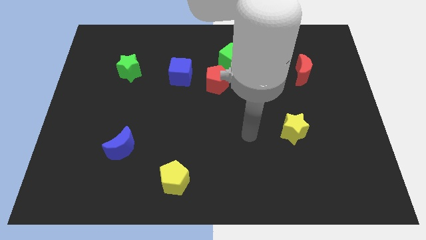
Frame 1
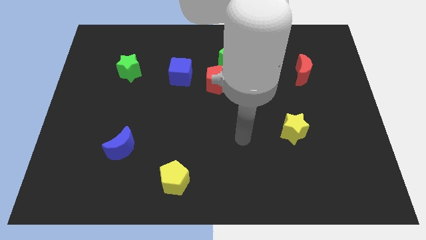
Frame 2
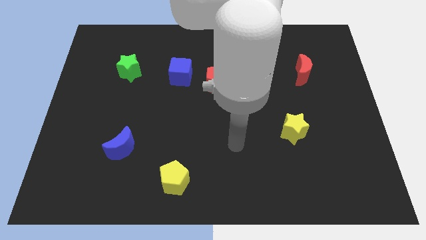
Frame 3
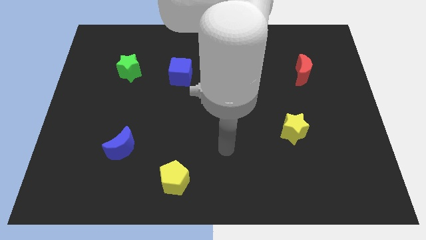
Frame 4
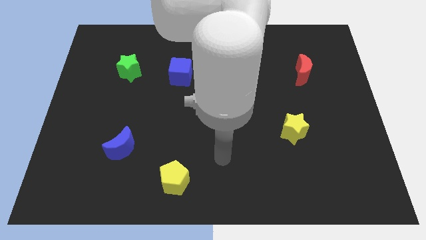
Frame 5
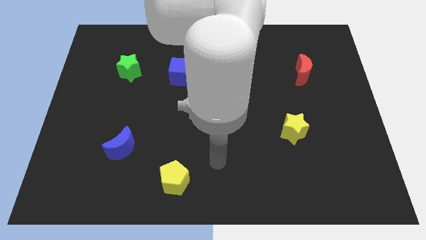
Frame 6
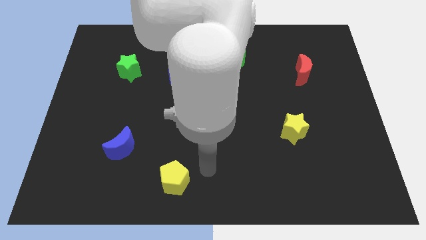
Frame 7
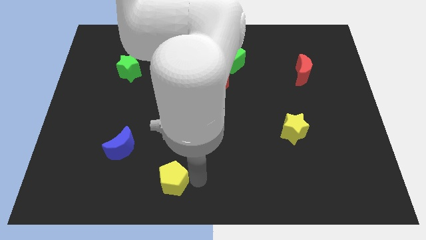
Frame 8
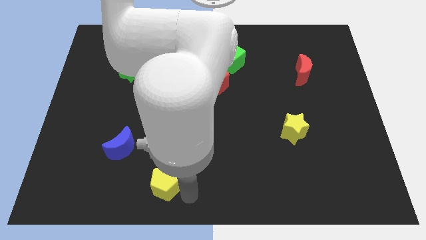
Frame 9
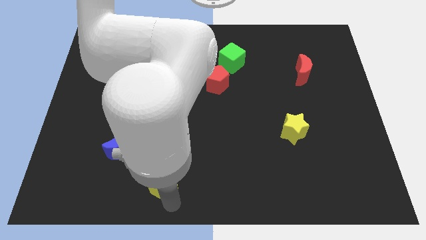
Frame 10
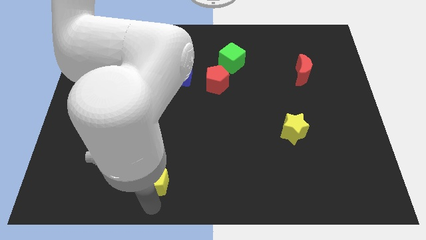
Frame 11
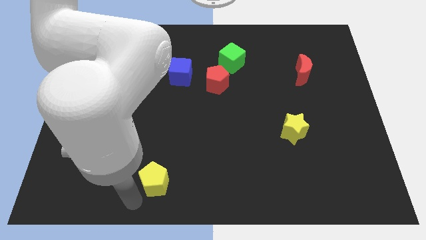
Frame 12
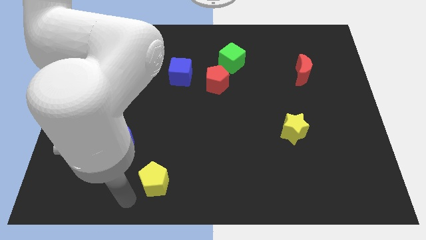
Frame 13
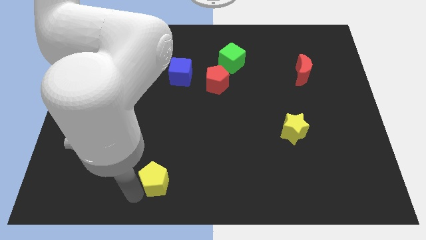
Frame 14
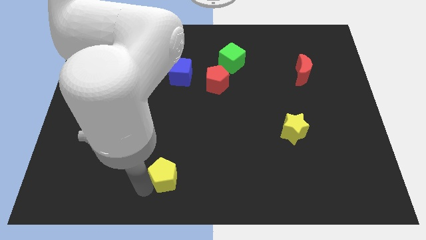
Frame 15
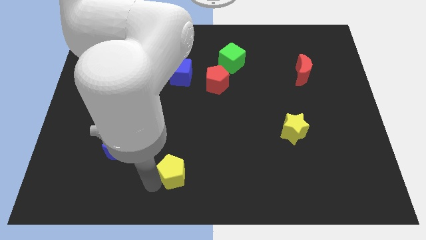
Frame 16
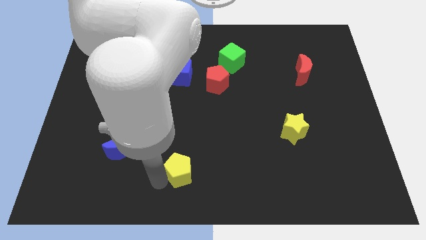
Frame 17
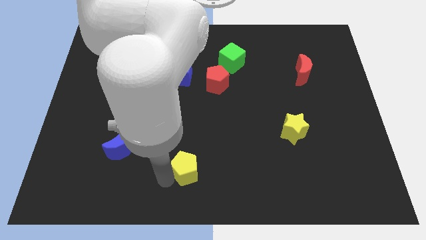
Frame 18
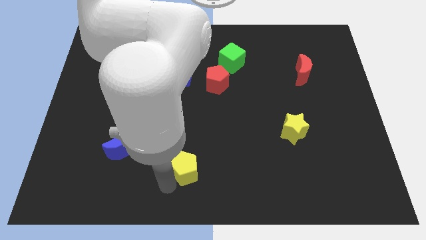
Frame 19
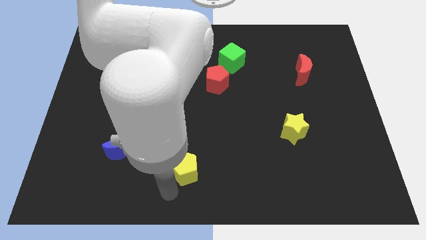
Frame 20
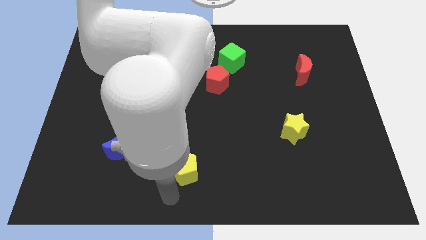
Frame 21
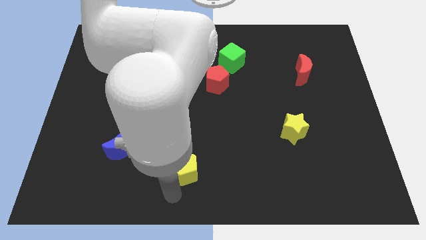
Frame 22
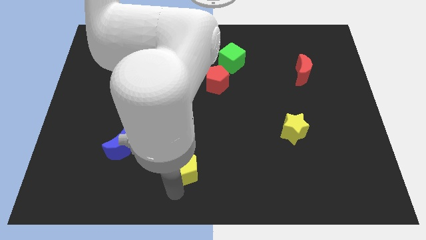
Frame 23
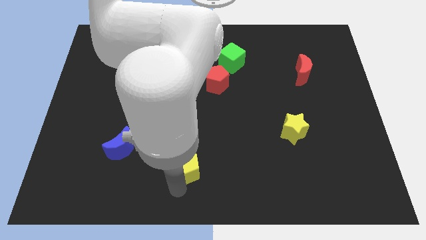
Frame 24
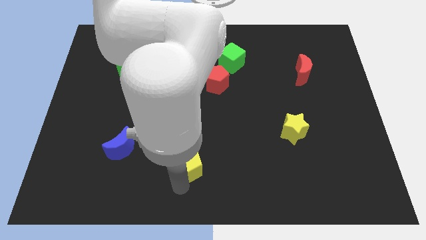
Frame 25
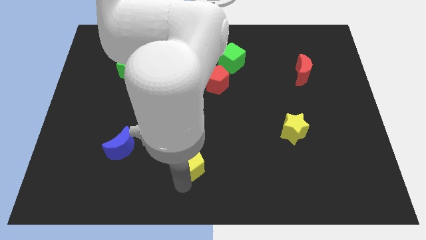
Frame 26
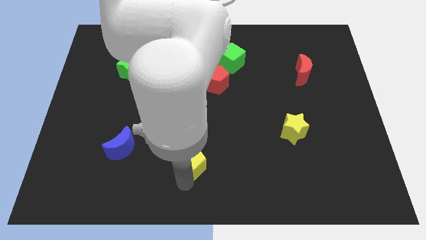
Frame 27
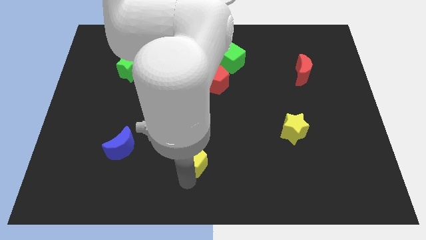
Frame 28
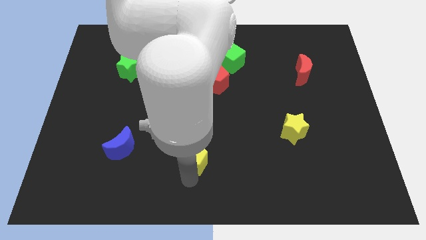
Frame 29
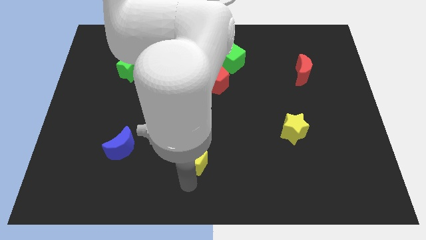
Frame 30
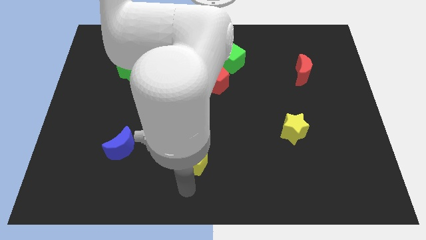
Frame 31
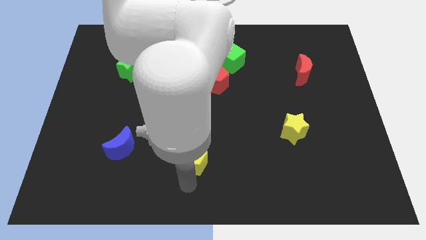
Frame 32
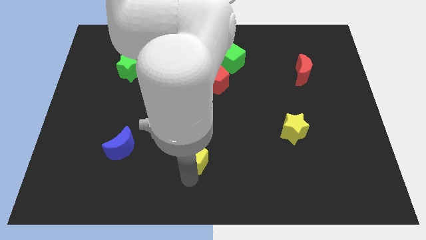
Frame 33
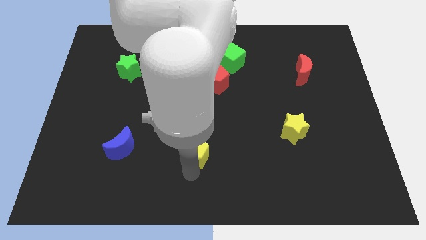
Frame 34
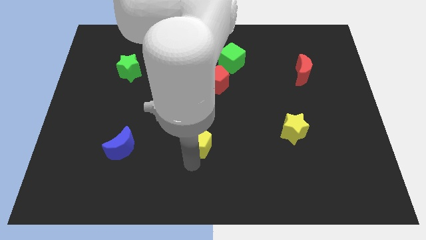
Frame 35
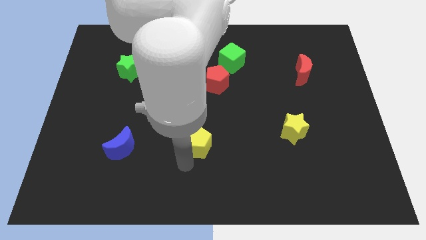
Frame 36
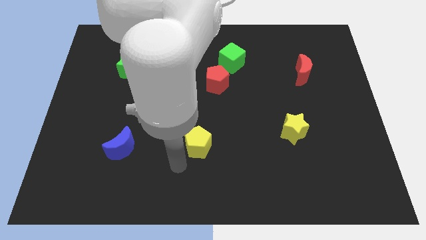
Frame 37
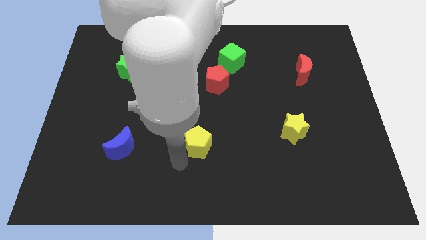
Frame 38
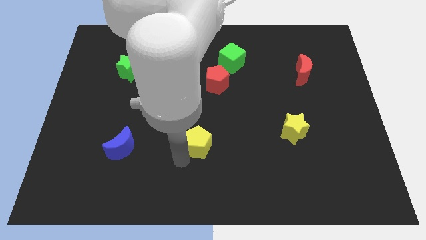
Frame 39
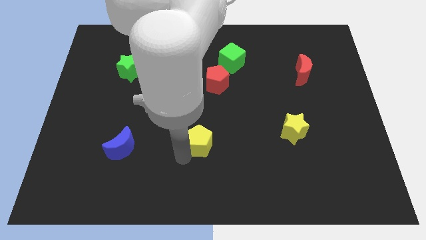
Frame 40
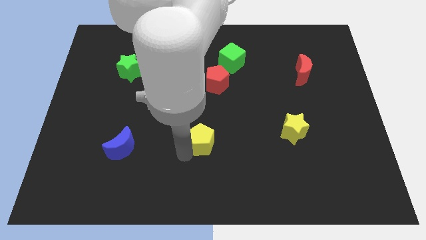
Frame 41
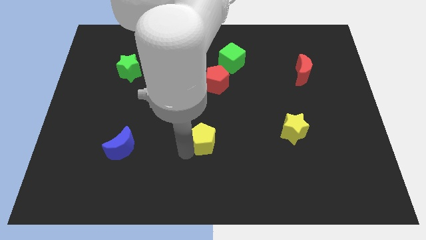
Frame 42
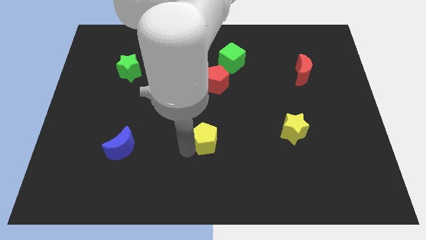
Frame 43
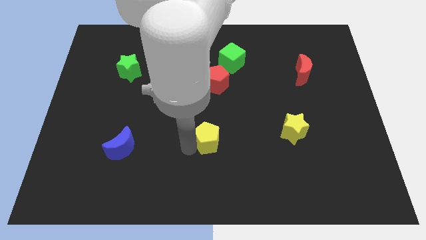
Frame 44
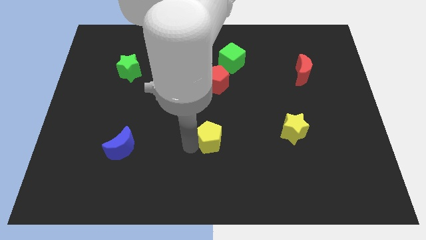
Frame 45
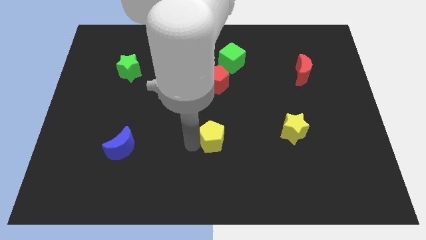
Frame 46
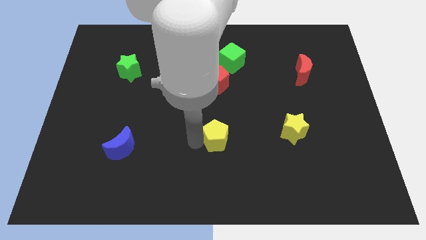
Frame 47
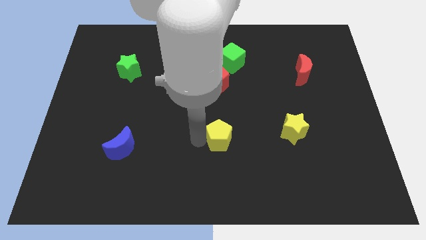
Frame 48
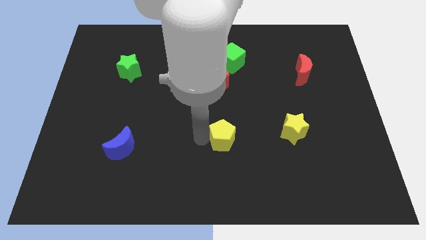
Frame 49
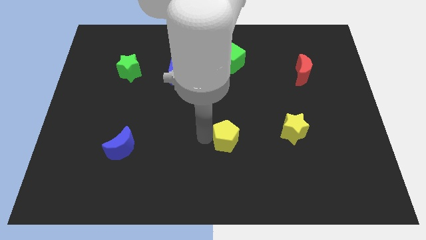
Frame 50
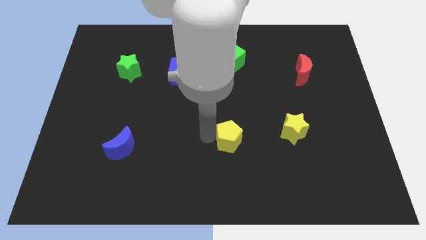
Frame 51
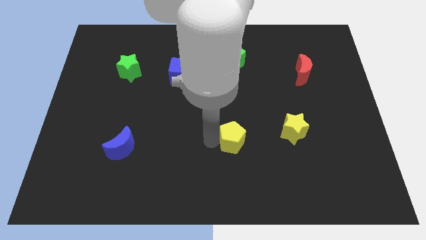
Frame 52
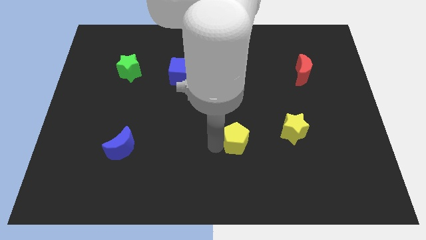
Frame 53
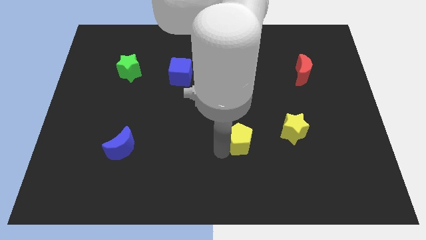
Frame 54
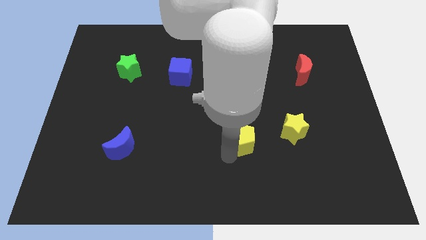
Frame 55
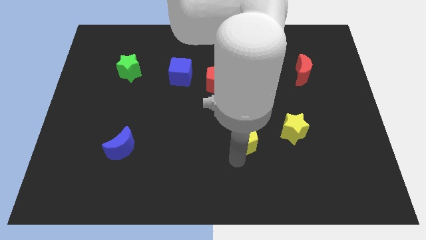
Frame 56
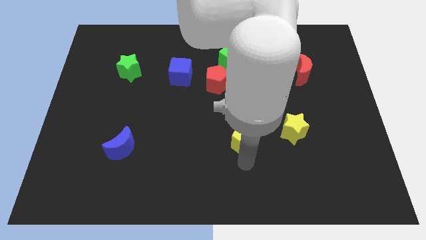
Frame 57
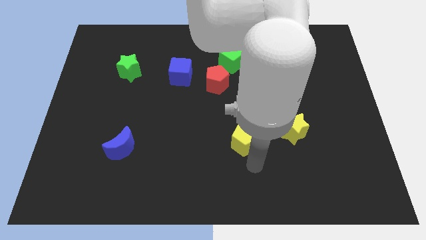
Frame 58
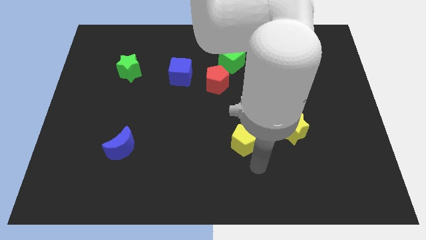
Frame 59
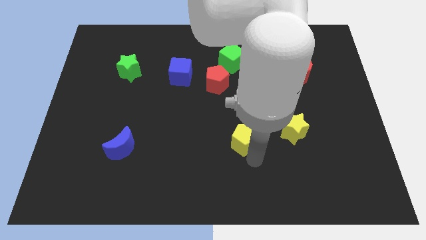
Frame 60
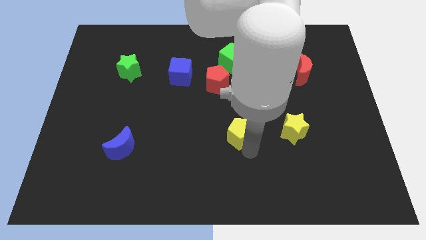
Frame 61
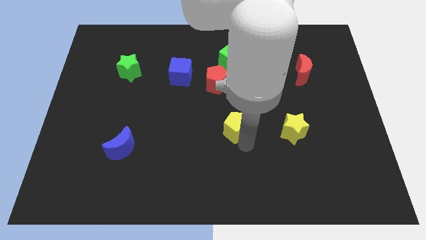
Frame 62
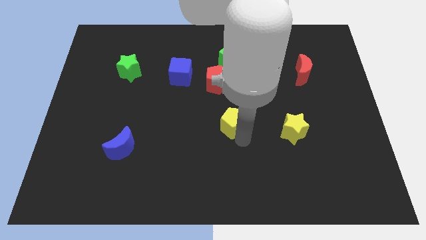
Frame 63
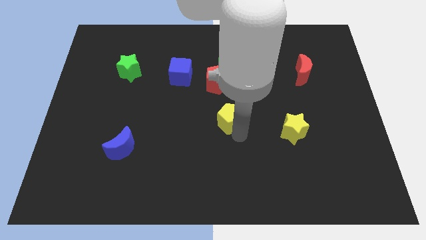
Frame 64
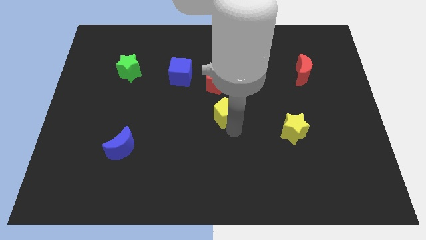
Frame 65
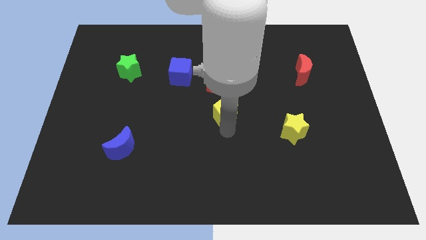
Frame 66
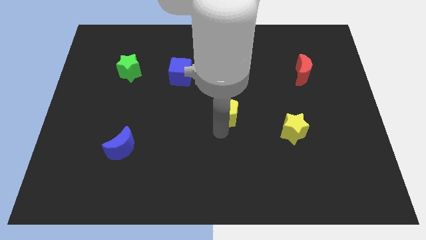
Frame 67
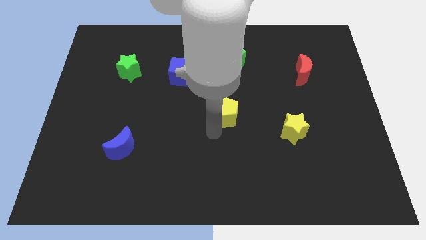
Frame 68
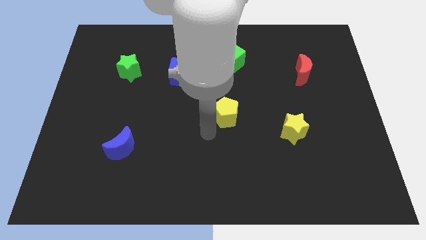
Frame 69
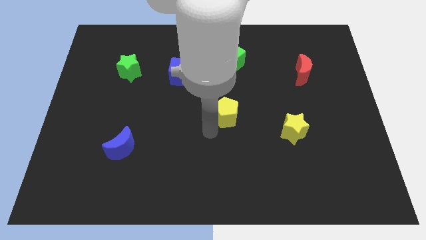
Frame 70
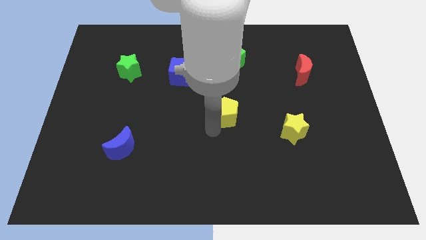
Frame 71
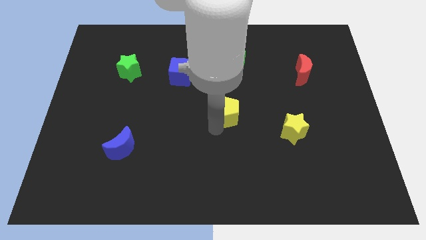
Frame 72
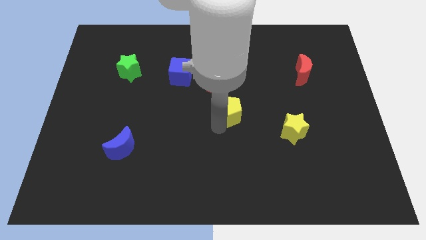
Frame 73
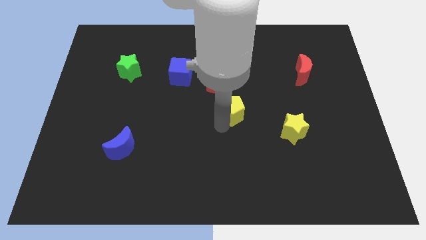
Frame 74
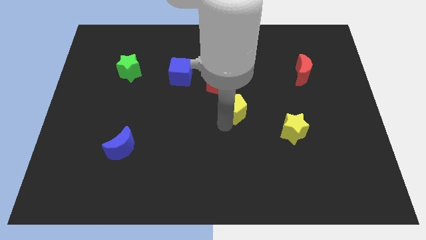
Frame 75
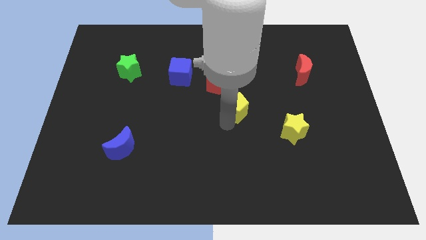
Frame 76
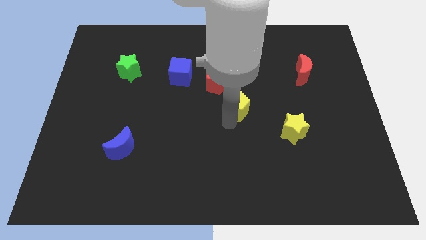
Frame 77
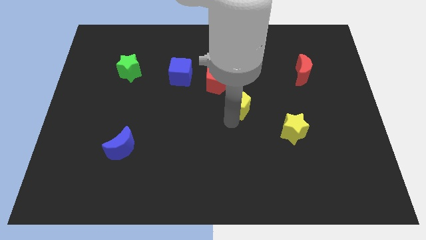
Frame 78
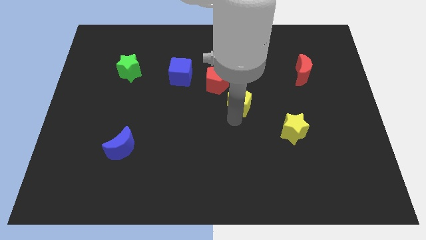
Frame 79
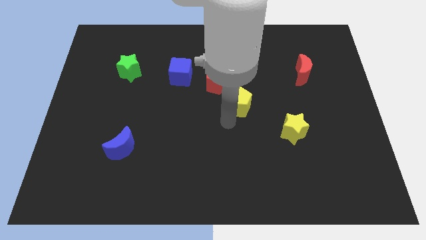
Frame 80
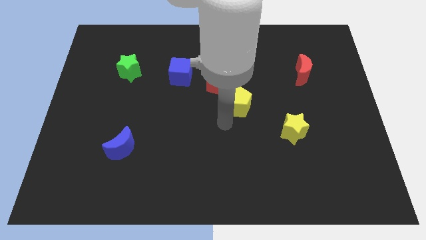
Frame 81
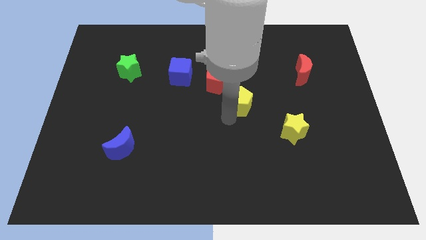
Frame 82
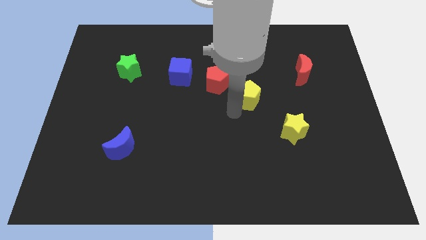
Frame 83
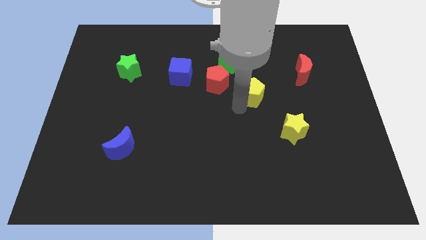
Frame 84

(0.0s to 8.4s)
slide the yellow pentagon to the right side of the red pentagon
